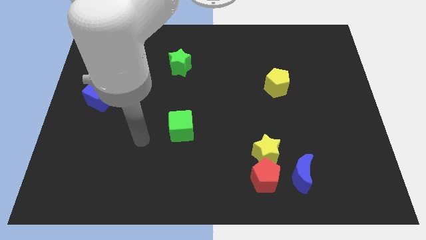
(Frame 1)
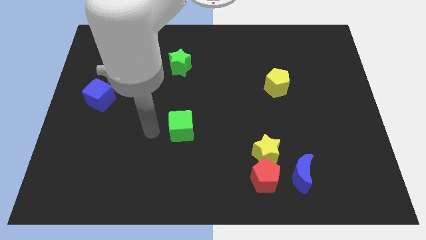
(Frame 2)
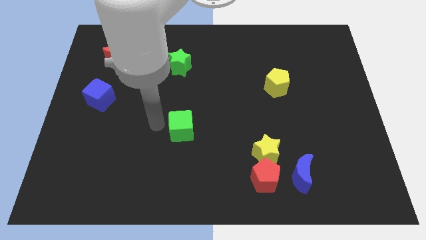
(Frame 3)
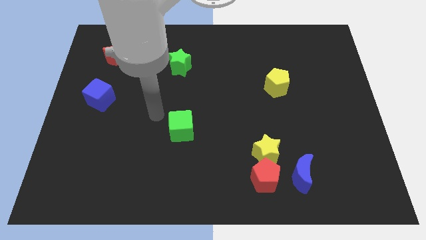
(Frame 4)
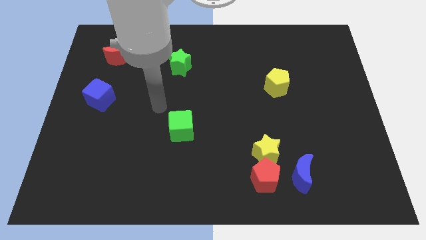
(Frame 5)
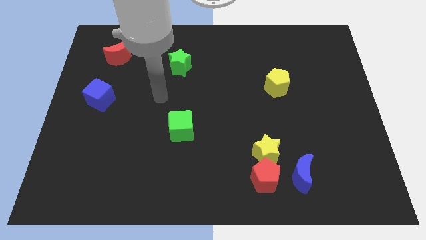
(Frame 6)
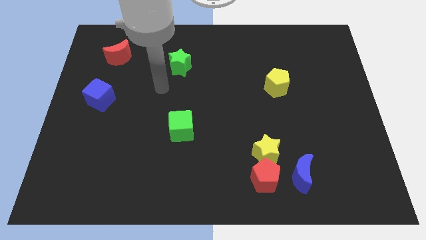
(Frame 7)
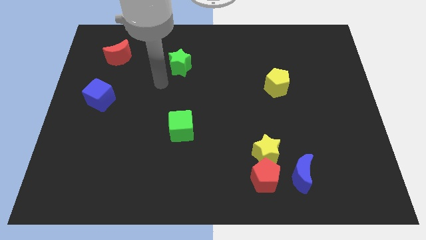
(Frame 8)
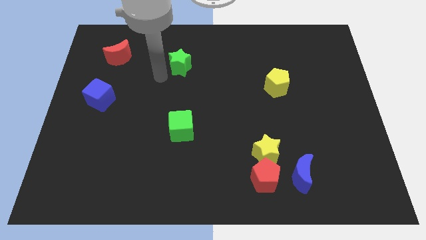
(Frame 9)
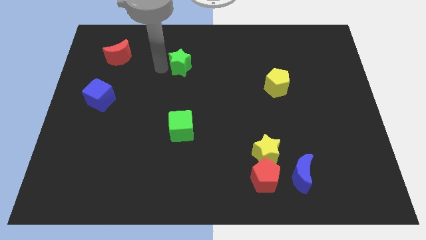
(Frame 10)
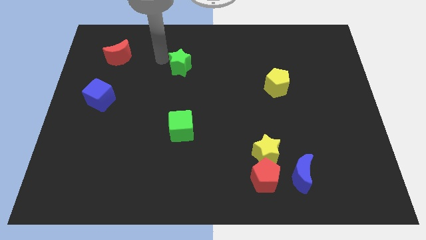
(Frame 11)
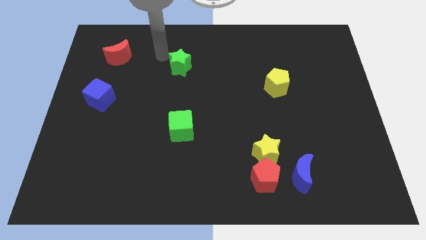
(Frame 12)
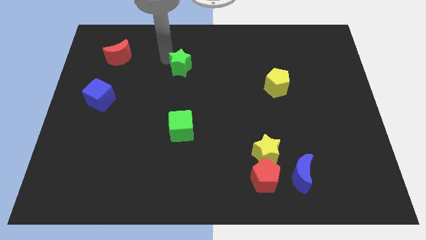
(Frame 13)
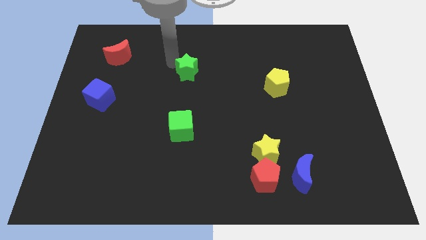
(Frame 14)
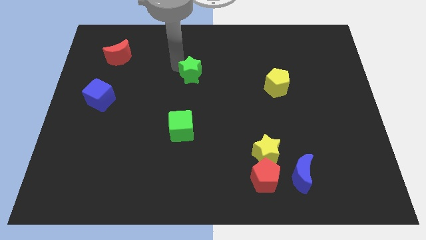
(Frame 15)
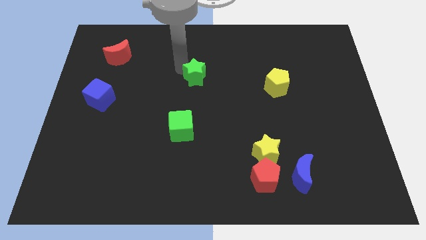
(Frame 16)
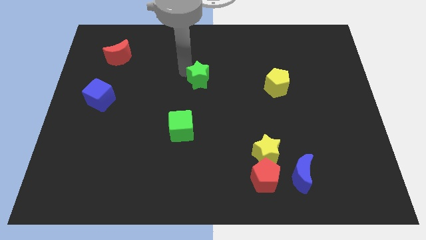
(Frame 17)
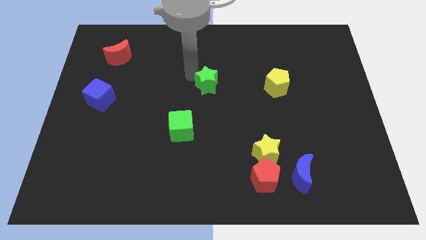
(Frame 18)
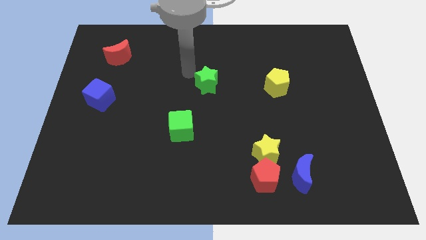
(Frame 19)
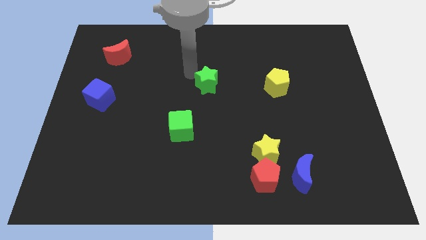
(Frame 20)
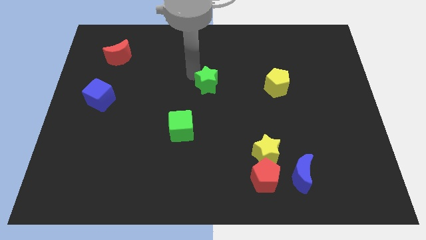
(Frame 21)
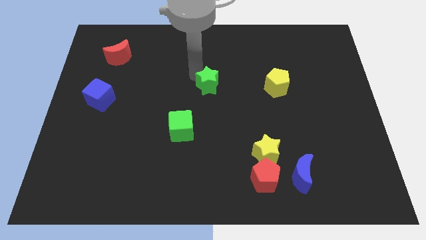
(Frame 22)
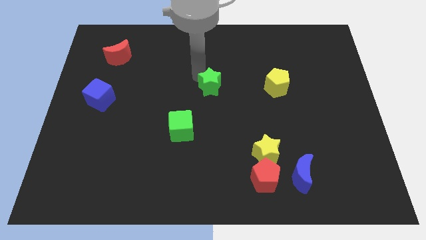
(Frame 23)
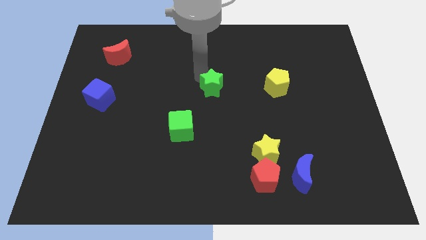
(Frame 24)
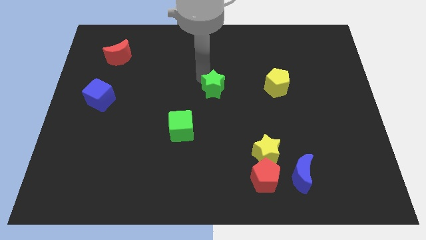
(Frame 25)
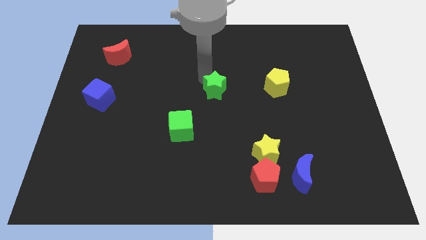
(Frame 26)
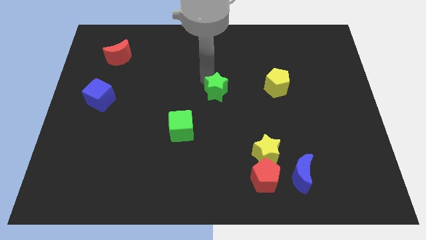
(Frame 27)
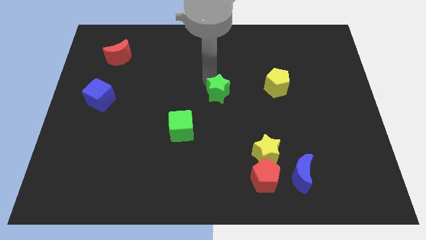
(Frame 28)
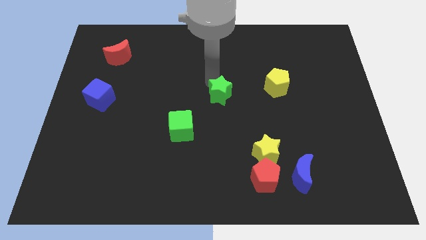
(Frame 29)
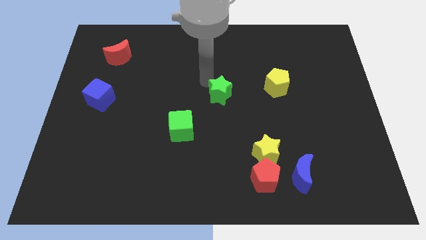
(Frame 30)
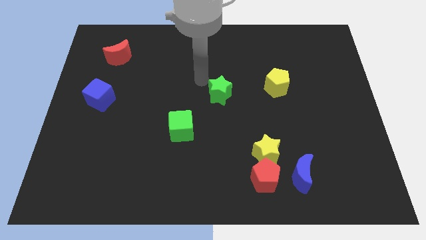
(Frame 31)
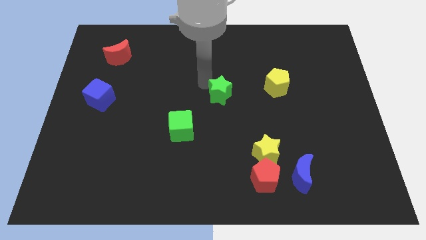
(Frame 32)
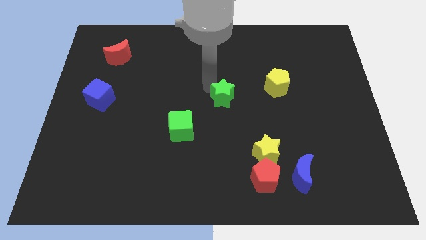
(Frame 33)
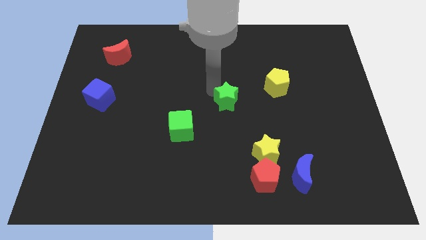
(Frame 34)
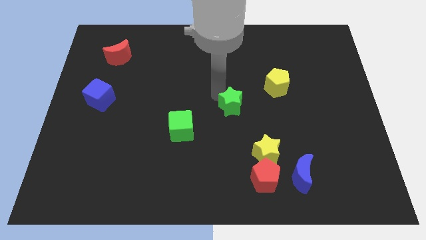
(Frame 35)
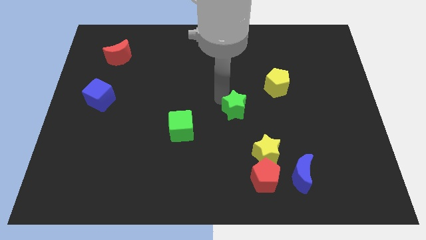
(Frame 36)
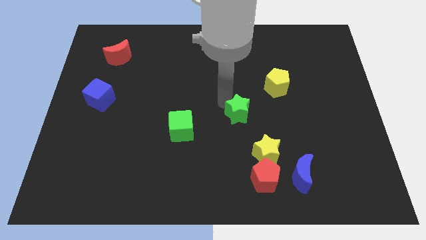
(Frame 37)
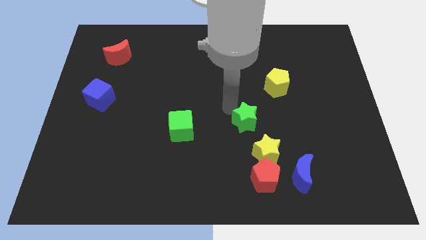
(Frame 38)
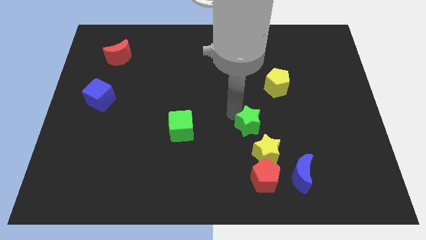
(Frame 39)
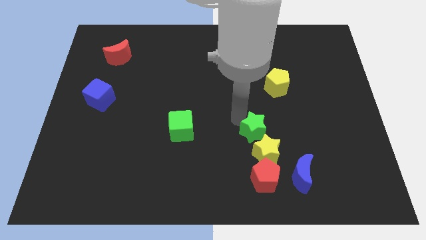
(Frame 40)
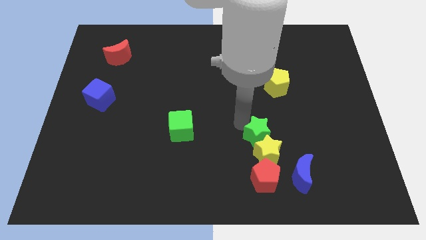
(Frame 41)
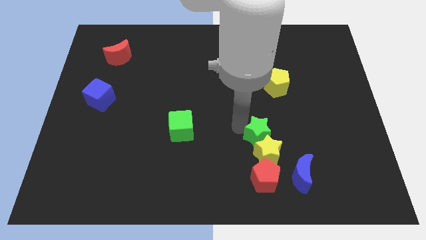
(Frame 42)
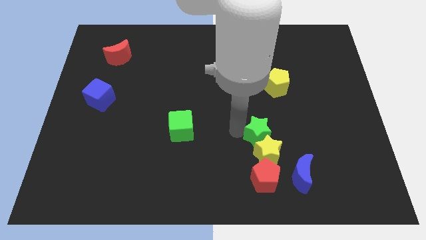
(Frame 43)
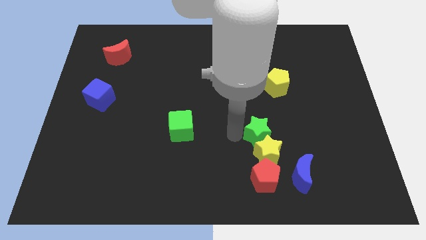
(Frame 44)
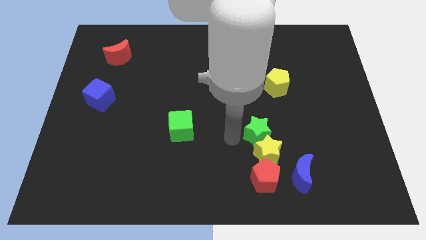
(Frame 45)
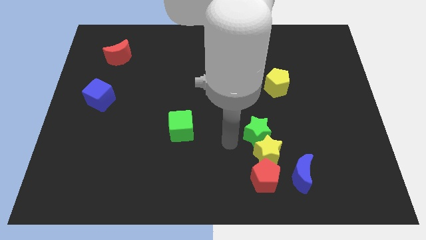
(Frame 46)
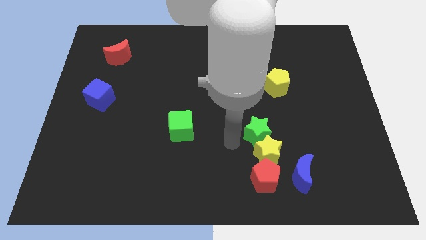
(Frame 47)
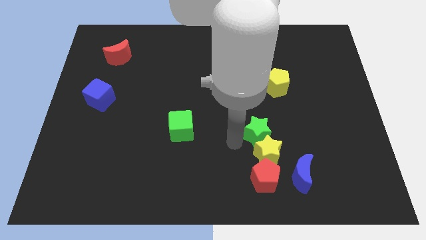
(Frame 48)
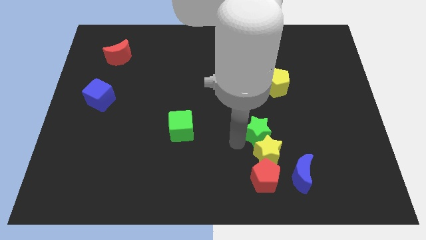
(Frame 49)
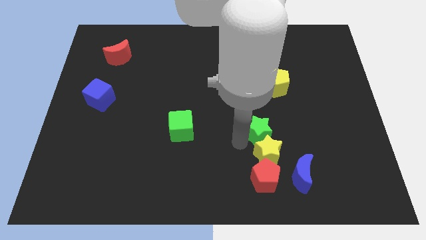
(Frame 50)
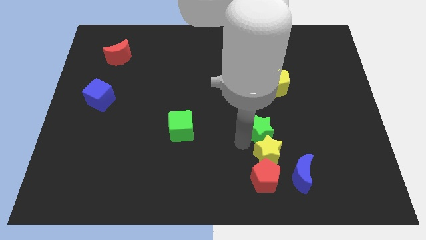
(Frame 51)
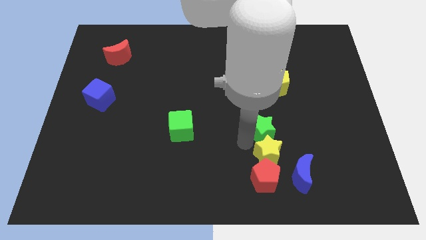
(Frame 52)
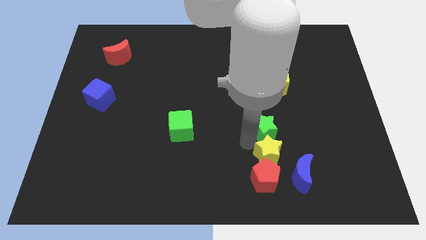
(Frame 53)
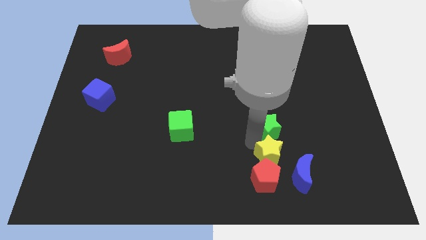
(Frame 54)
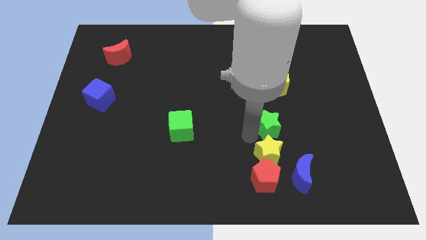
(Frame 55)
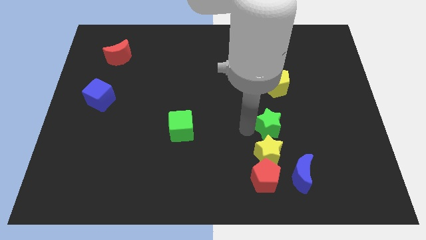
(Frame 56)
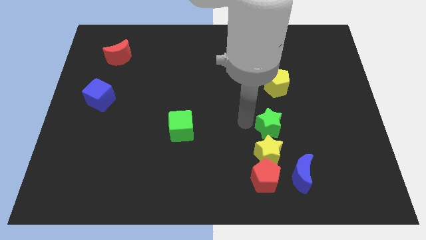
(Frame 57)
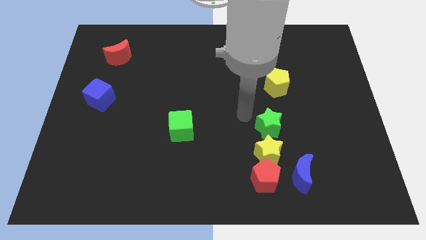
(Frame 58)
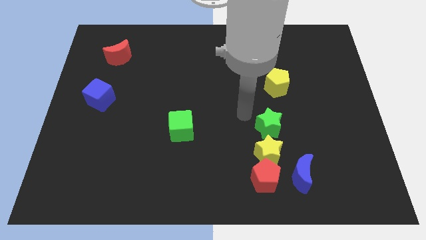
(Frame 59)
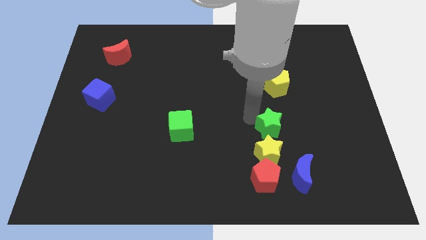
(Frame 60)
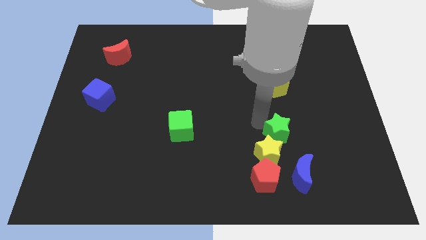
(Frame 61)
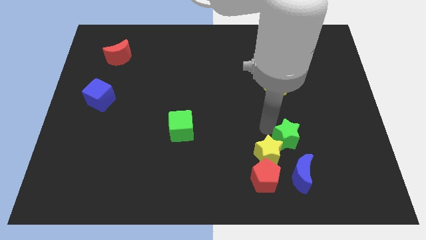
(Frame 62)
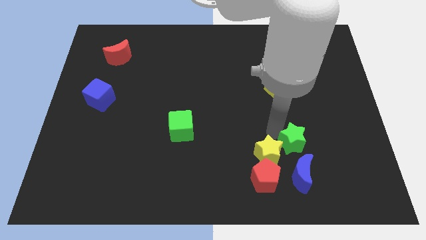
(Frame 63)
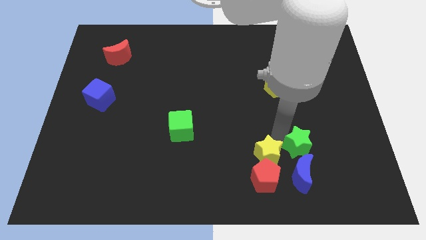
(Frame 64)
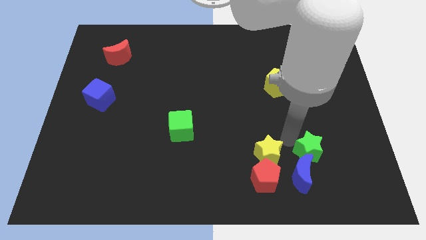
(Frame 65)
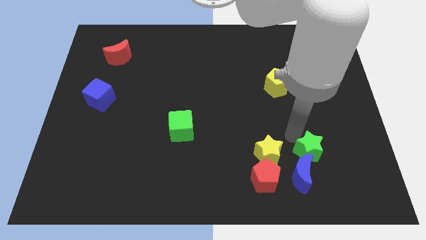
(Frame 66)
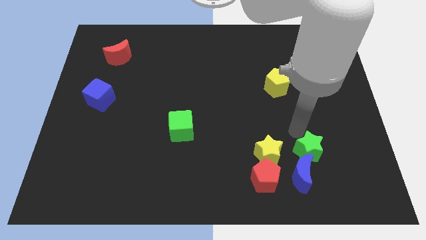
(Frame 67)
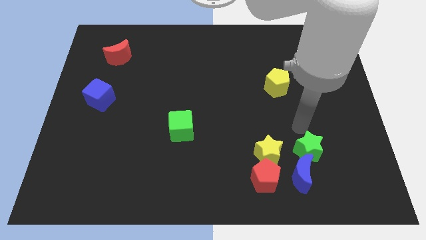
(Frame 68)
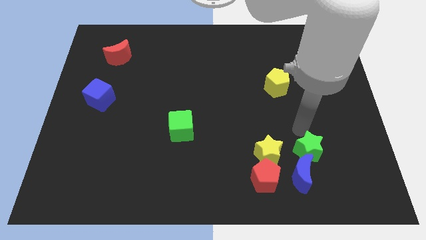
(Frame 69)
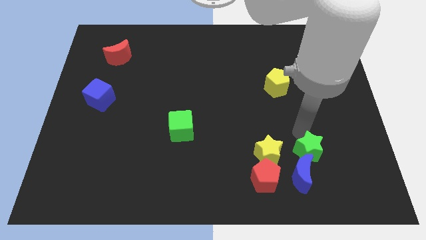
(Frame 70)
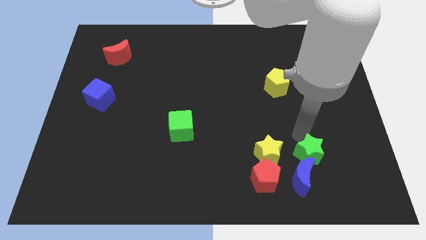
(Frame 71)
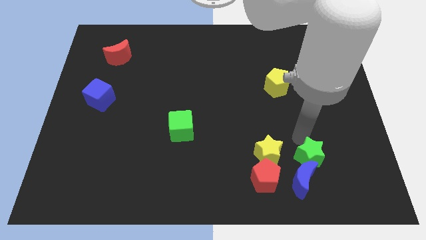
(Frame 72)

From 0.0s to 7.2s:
slide the green star to the right side of the red pentagon
